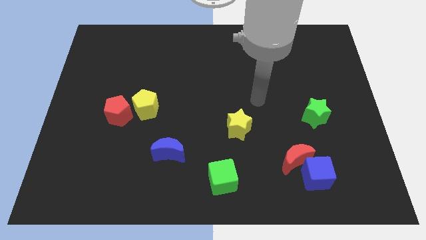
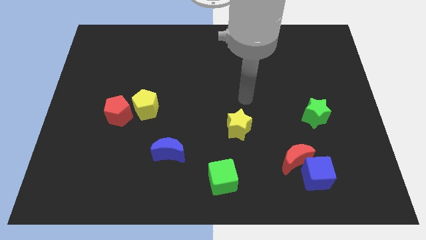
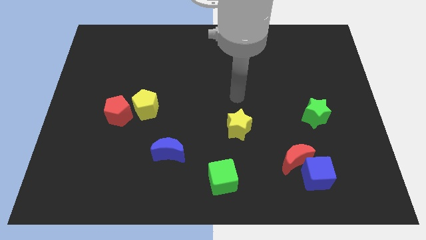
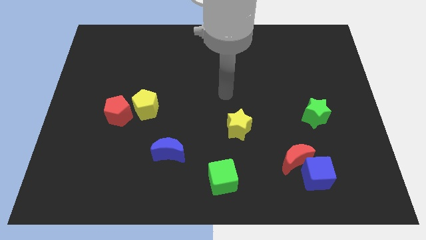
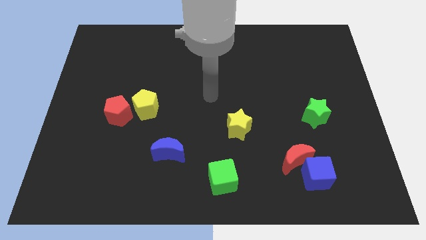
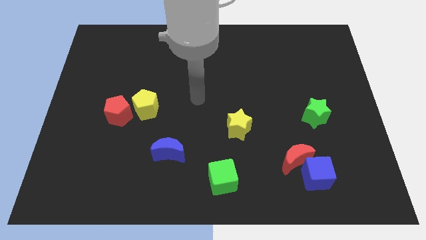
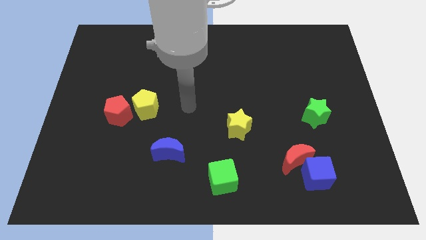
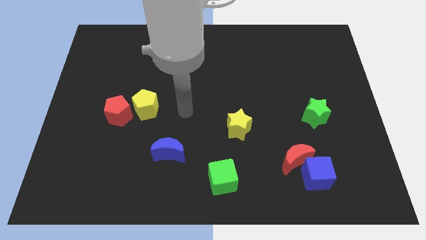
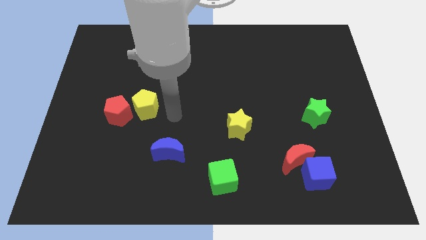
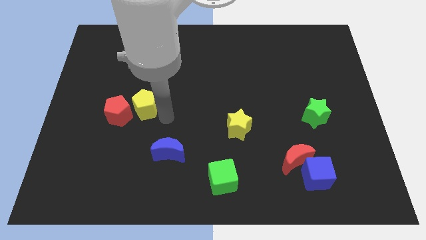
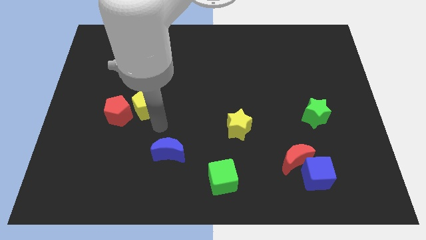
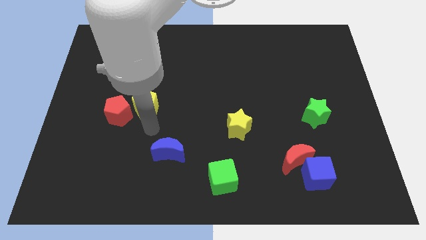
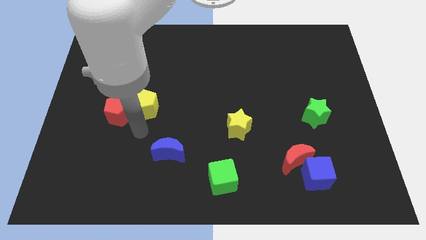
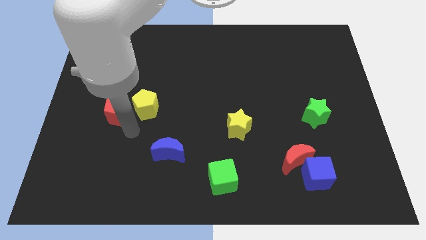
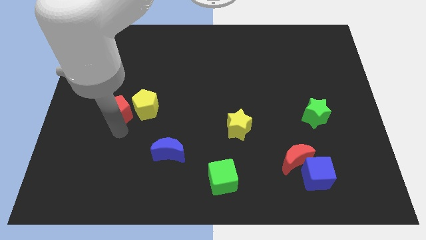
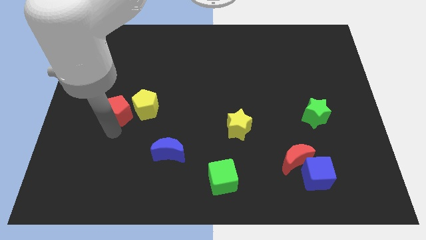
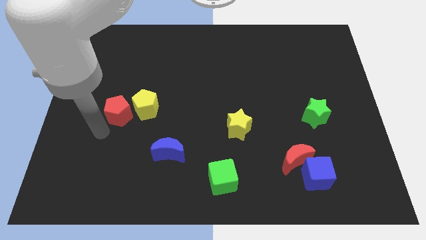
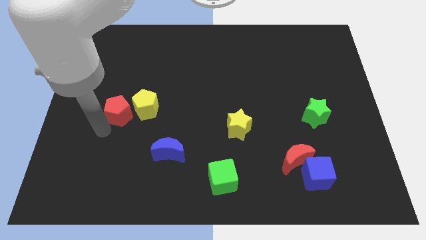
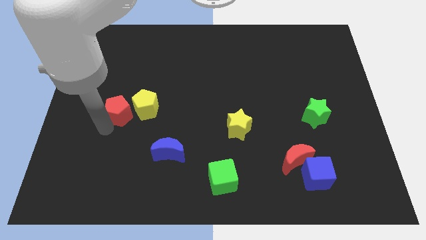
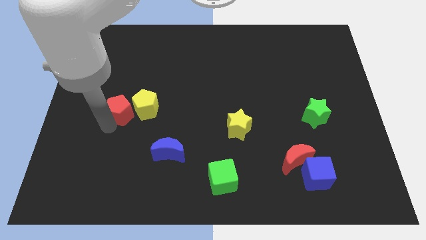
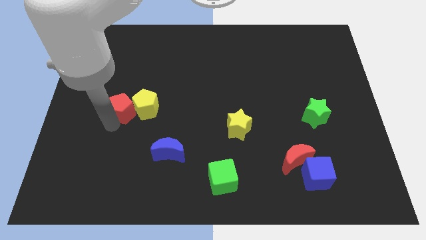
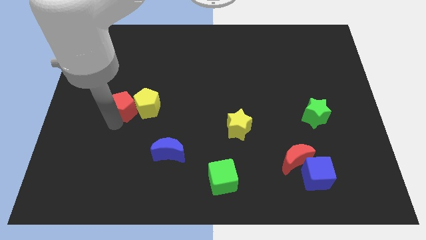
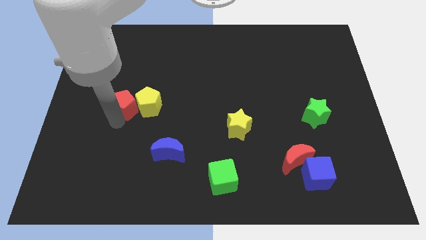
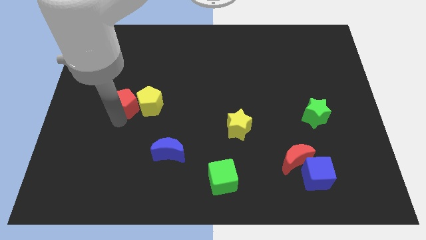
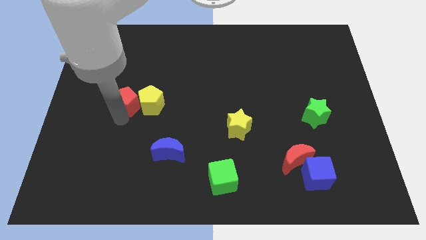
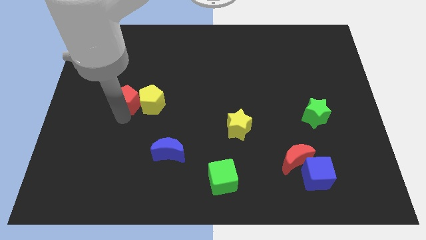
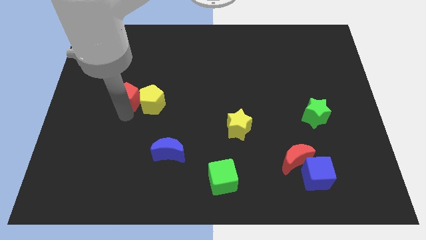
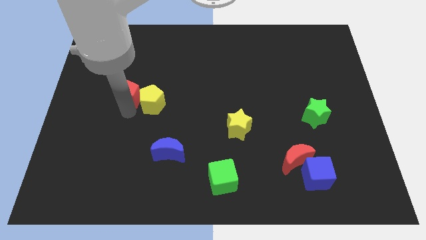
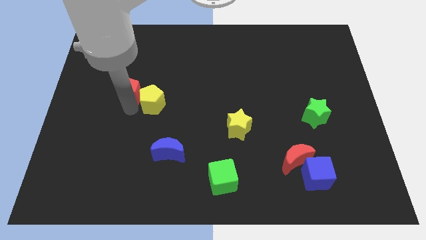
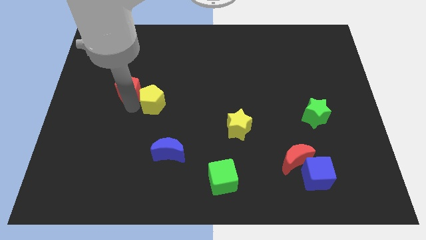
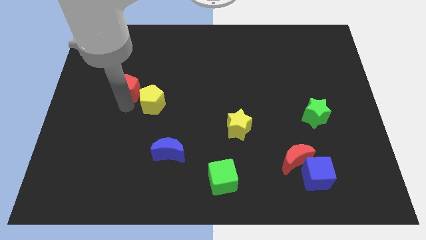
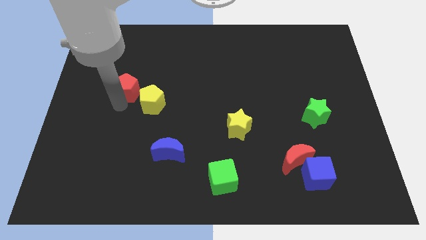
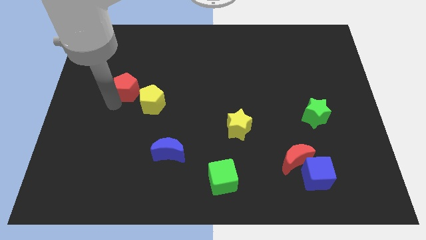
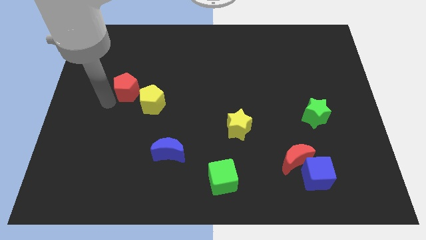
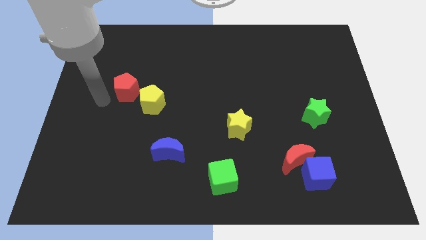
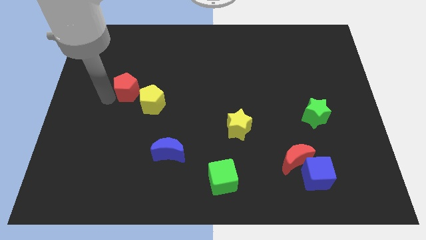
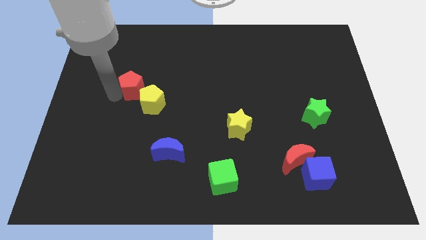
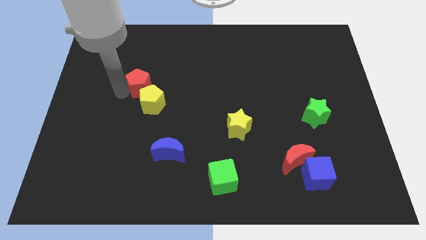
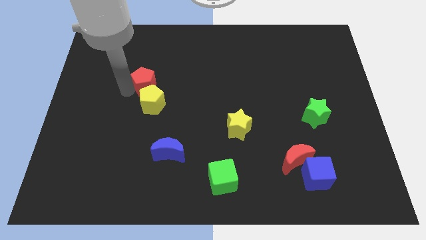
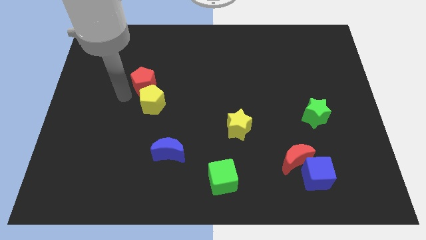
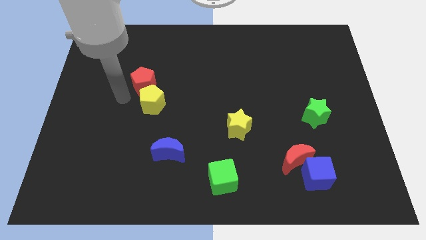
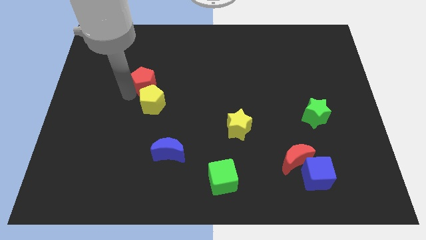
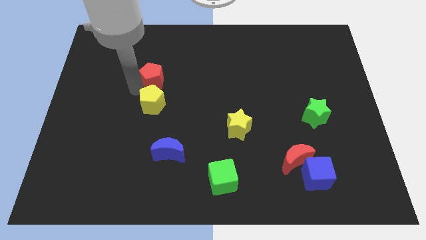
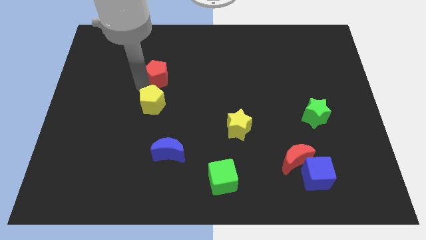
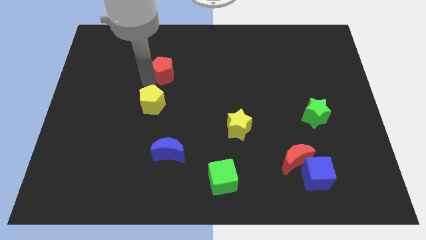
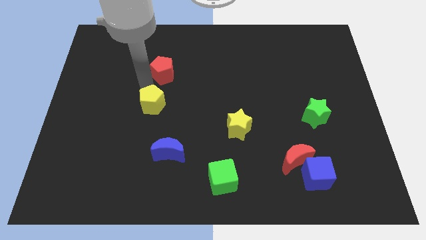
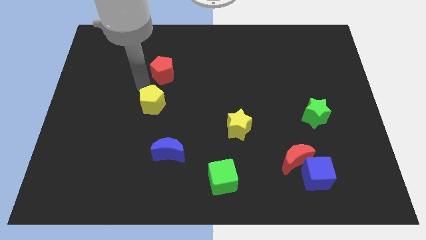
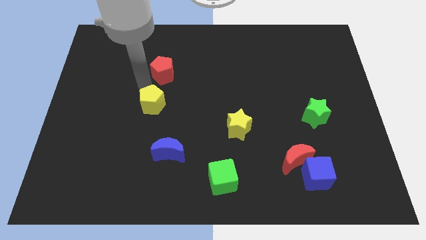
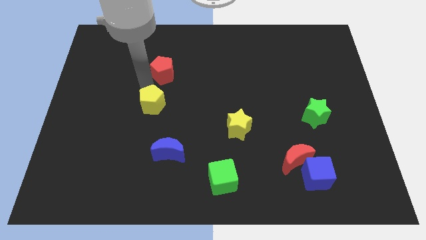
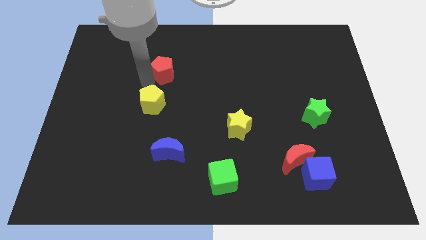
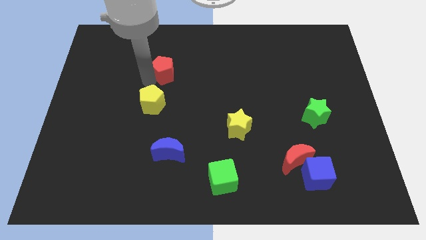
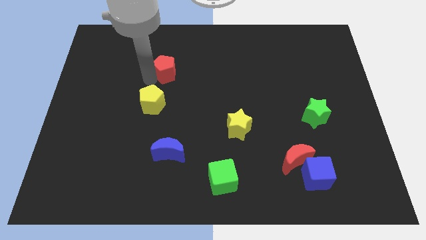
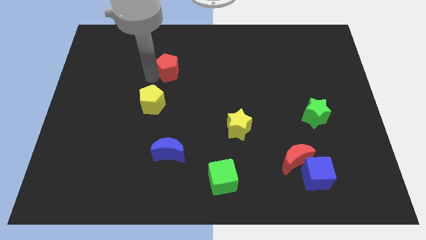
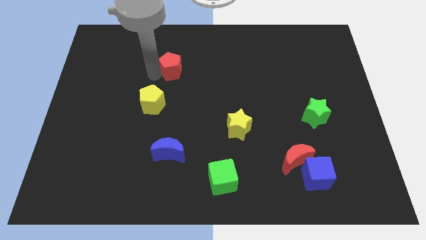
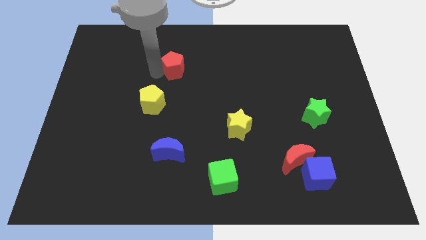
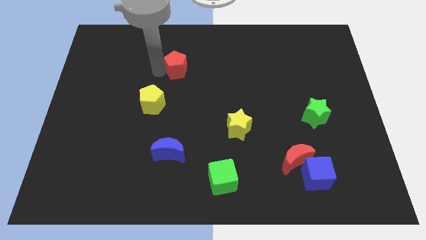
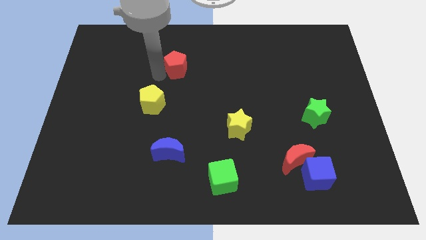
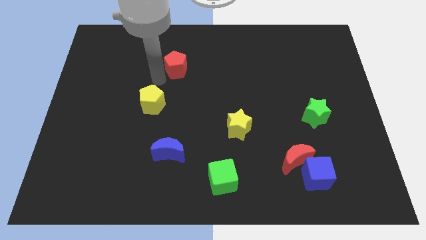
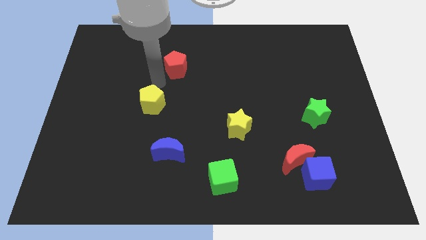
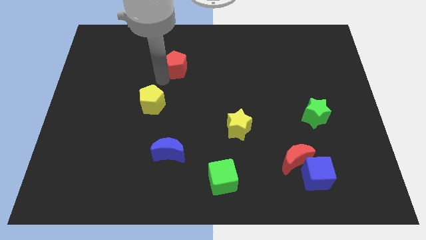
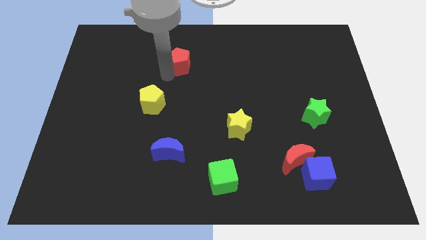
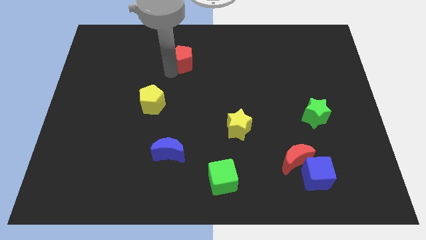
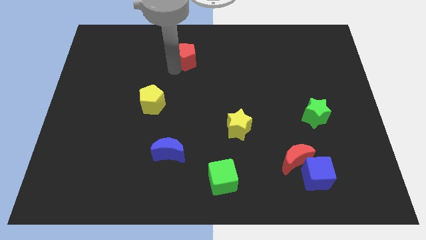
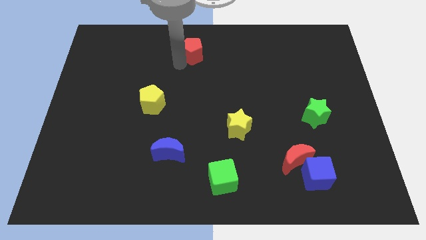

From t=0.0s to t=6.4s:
slide the red pentagon to the top side

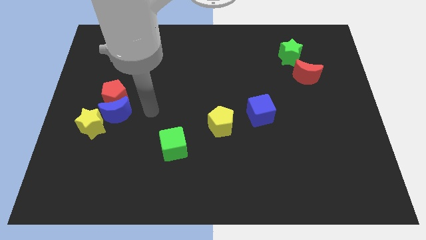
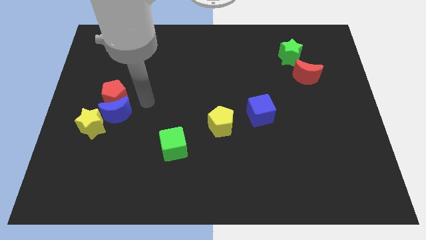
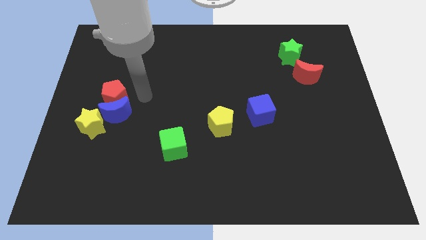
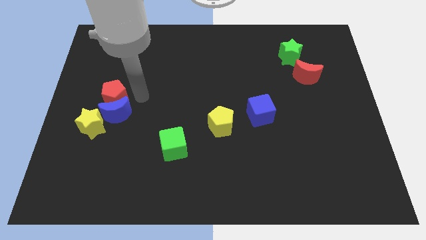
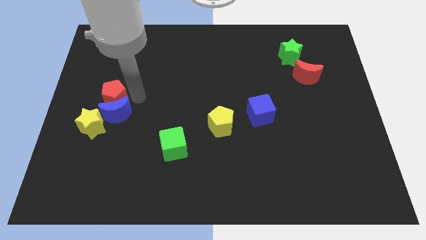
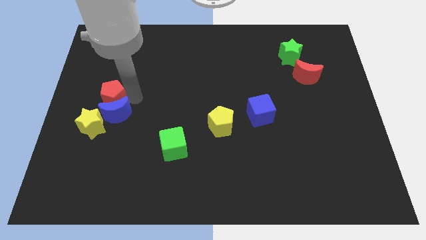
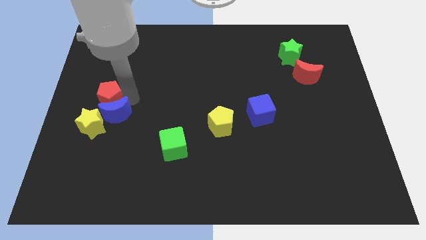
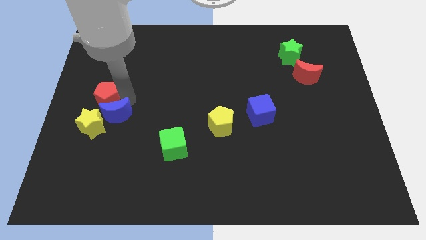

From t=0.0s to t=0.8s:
slide the red pentagon to the center left
